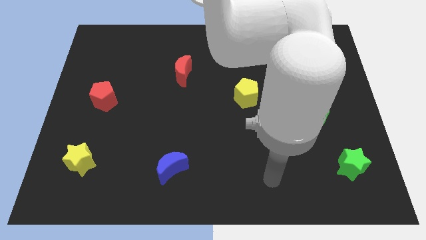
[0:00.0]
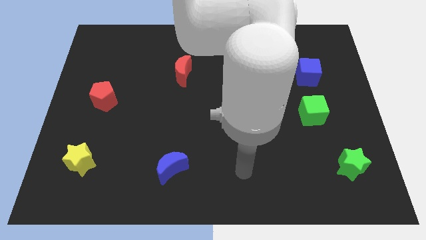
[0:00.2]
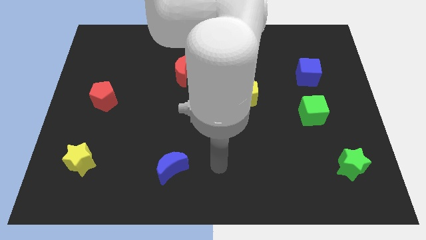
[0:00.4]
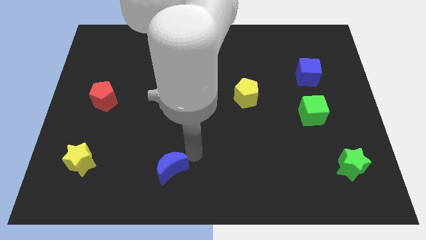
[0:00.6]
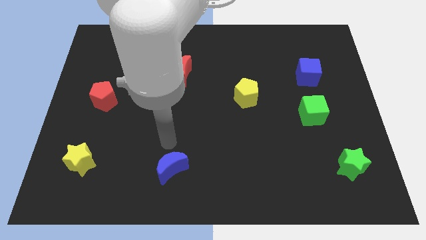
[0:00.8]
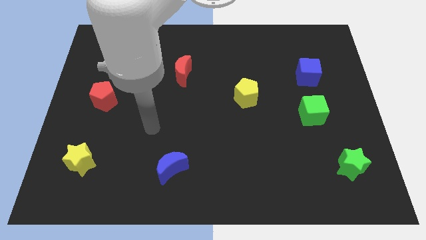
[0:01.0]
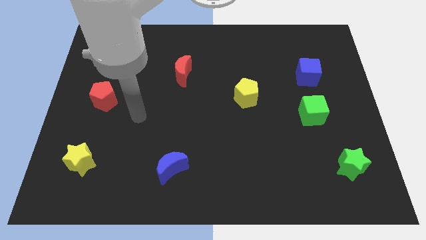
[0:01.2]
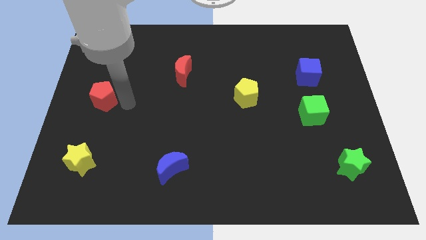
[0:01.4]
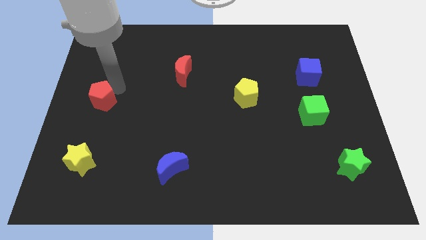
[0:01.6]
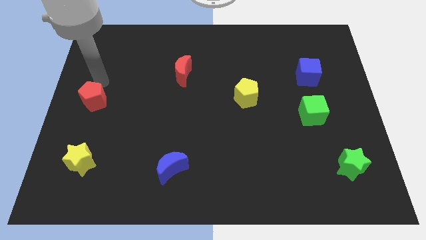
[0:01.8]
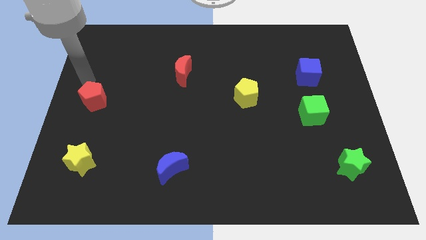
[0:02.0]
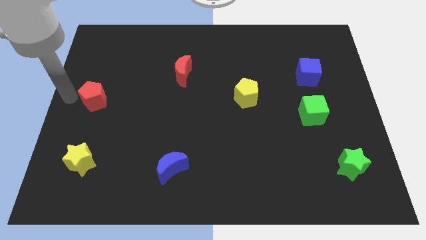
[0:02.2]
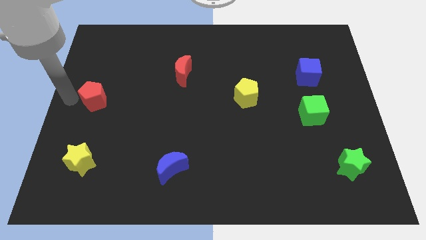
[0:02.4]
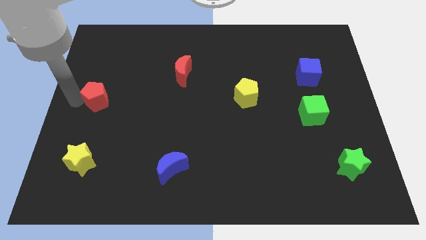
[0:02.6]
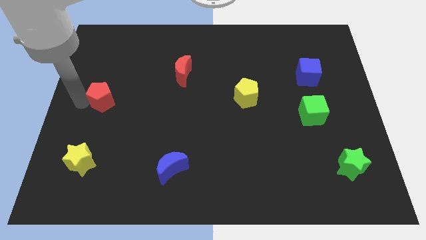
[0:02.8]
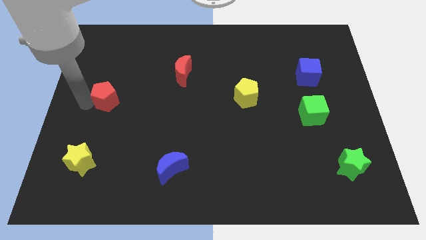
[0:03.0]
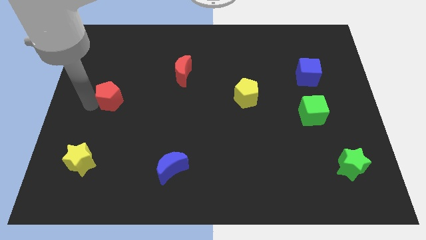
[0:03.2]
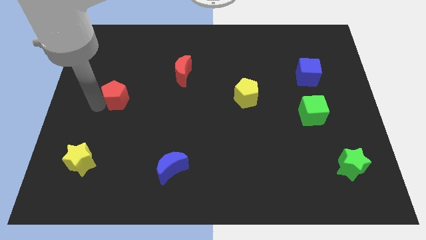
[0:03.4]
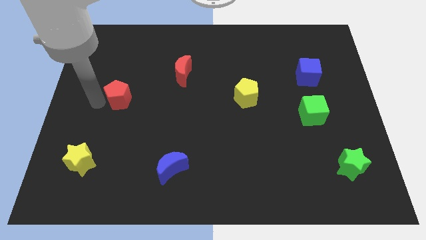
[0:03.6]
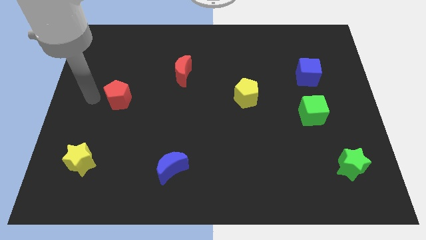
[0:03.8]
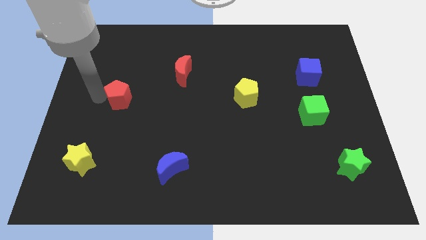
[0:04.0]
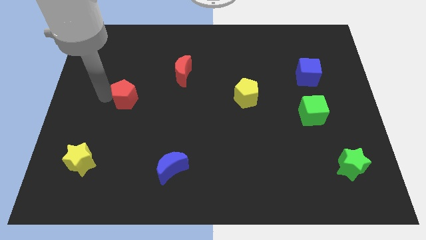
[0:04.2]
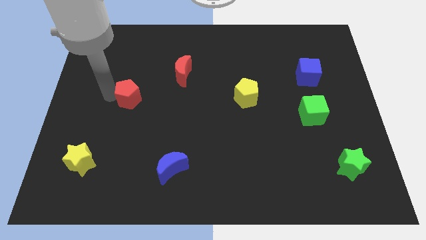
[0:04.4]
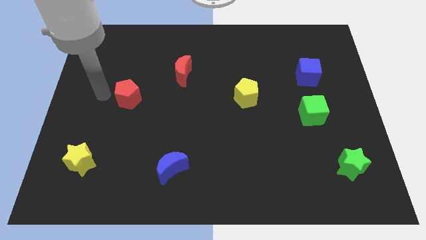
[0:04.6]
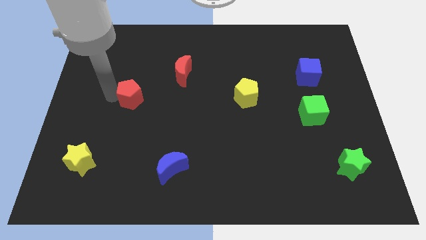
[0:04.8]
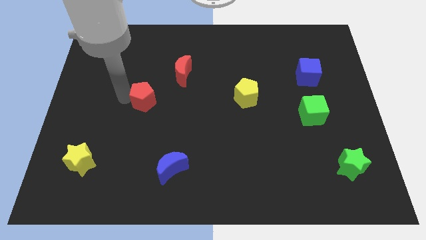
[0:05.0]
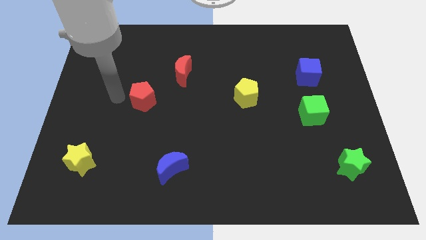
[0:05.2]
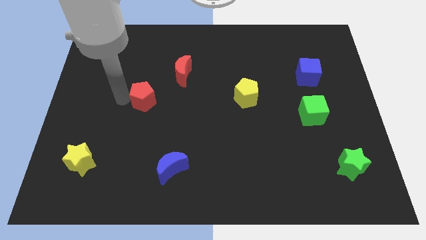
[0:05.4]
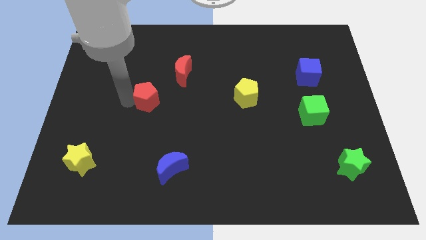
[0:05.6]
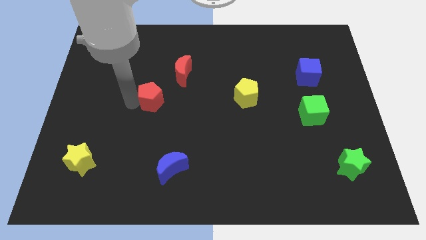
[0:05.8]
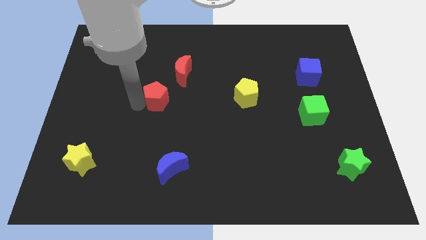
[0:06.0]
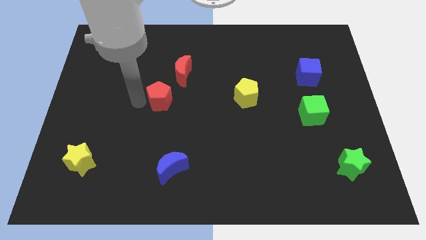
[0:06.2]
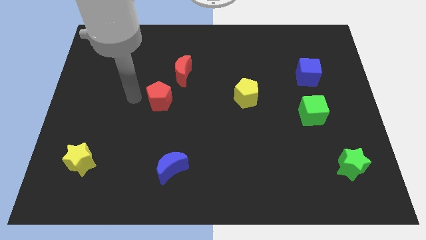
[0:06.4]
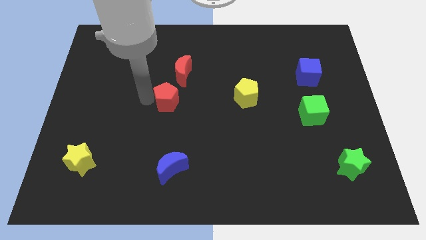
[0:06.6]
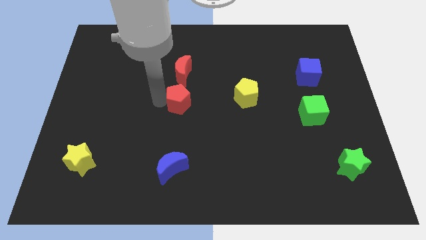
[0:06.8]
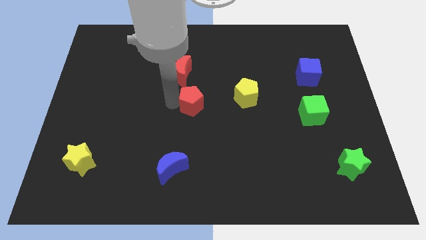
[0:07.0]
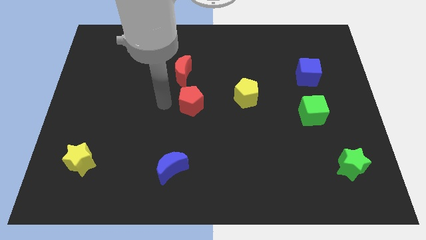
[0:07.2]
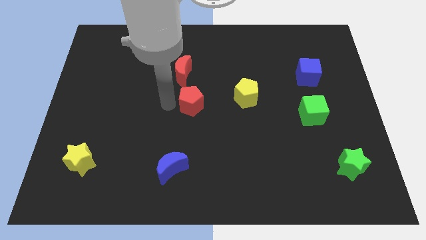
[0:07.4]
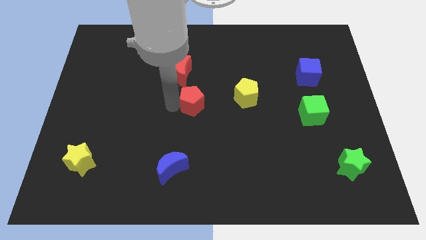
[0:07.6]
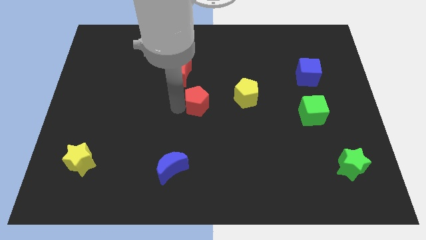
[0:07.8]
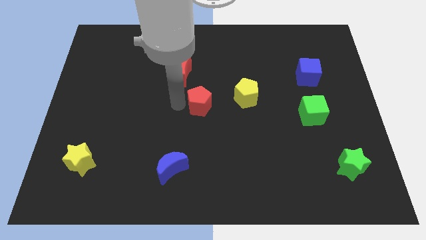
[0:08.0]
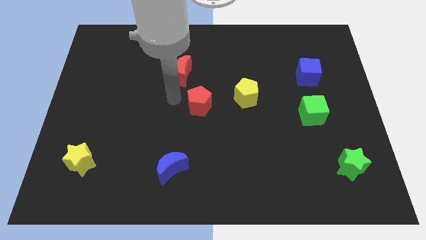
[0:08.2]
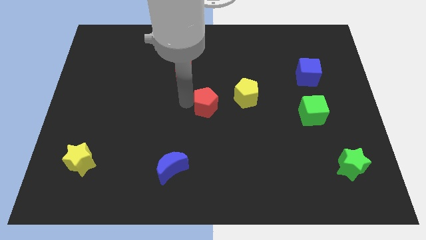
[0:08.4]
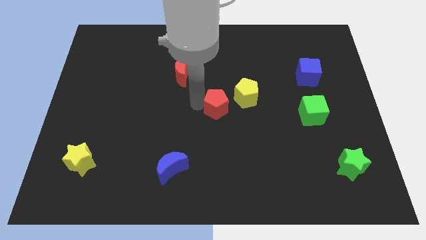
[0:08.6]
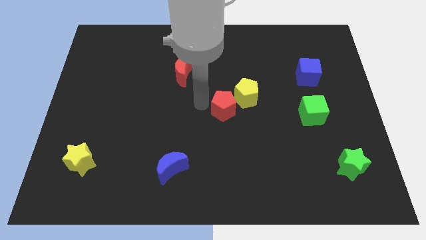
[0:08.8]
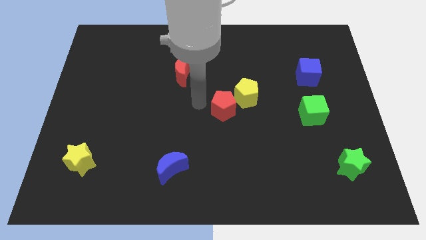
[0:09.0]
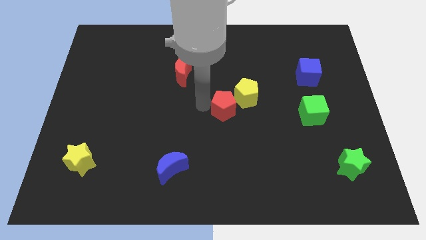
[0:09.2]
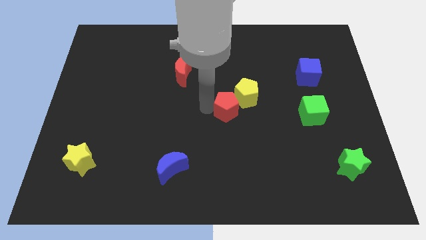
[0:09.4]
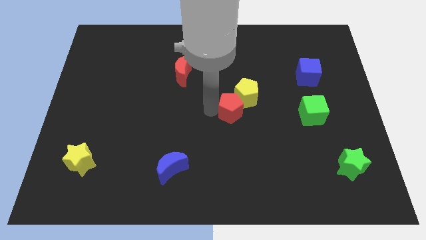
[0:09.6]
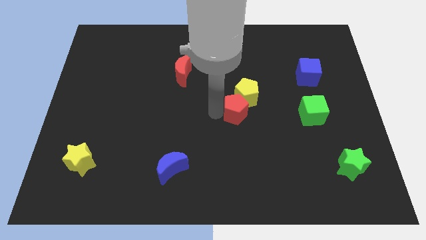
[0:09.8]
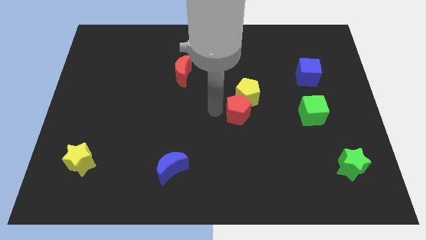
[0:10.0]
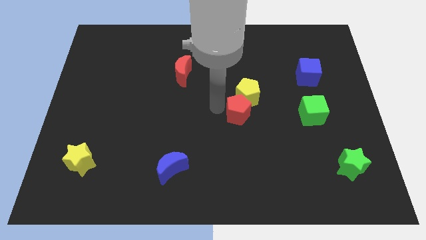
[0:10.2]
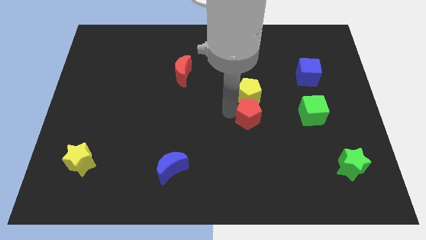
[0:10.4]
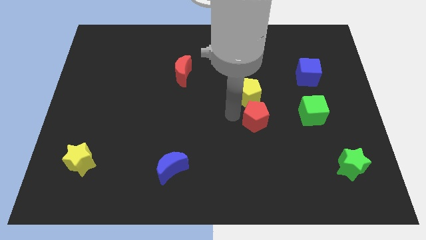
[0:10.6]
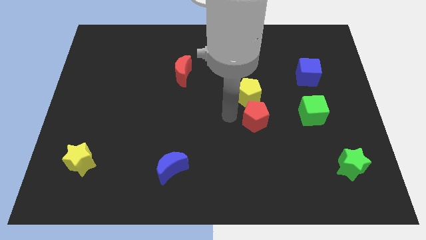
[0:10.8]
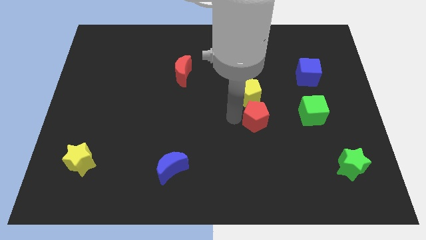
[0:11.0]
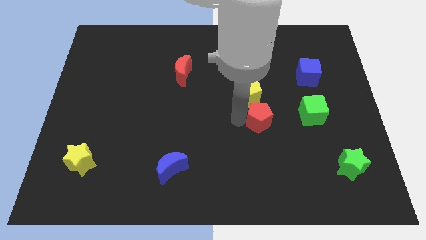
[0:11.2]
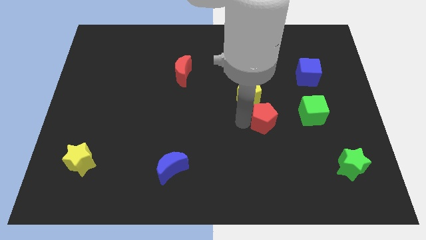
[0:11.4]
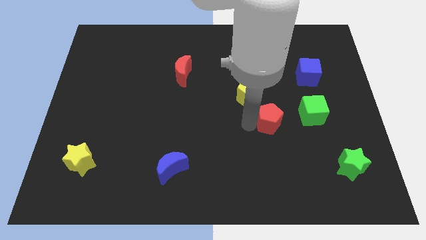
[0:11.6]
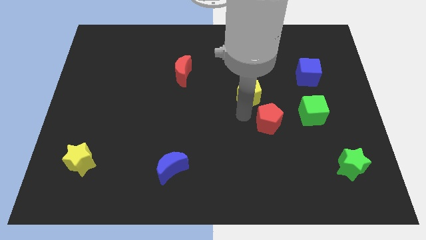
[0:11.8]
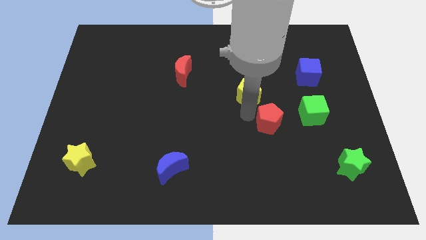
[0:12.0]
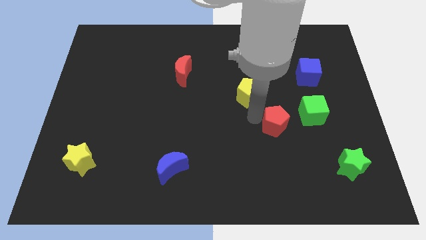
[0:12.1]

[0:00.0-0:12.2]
put the red pentagon diagonally down and to the left of the green cube

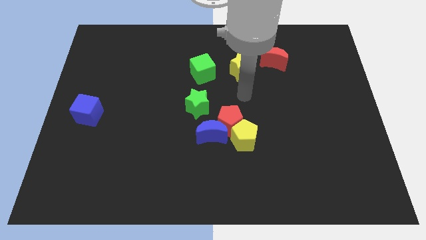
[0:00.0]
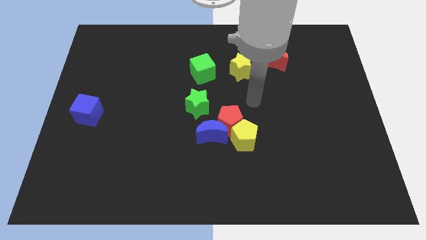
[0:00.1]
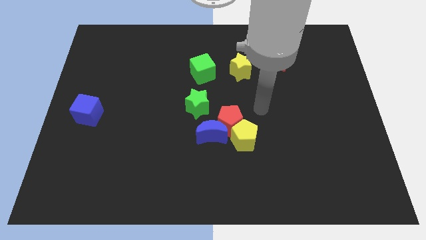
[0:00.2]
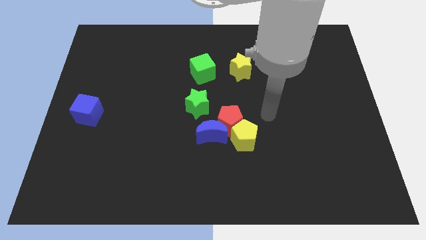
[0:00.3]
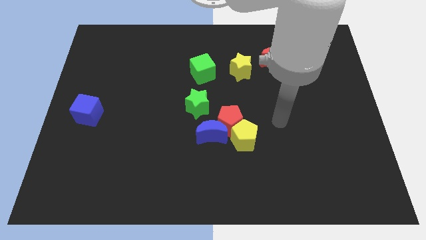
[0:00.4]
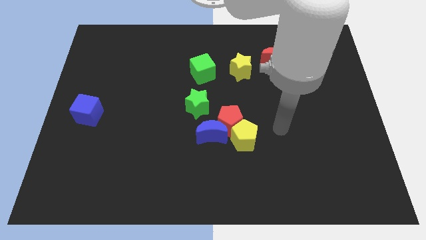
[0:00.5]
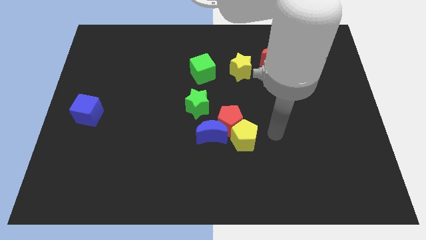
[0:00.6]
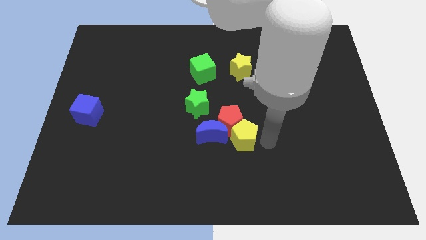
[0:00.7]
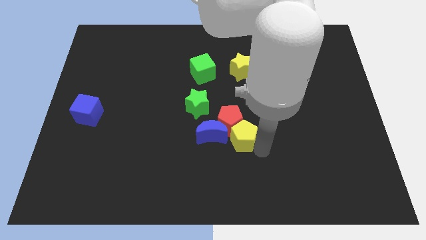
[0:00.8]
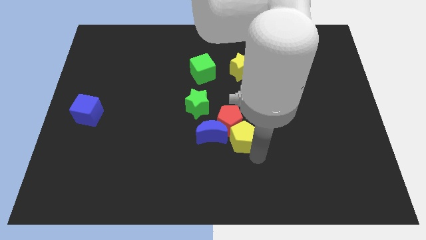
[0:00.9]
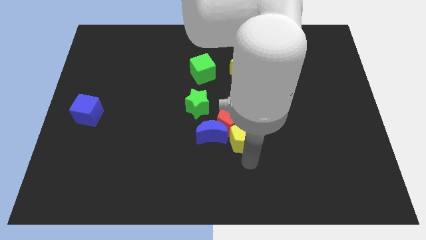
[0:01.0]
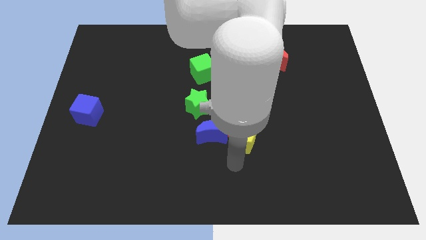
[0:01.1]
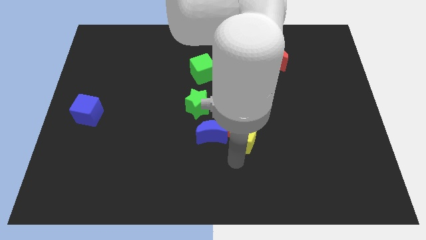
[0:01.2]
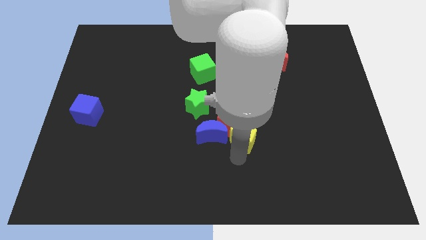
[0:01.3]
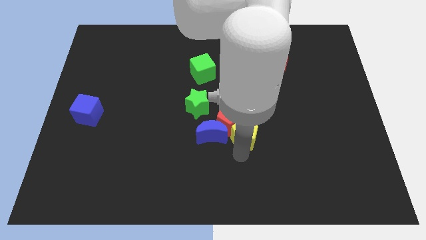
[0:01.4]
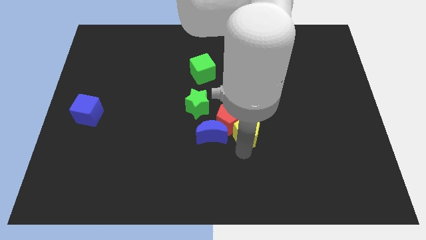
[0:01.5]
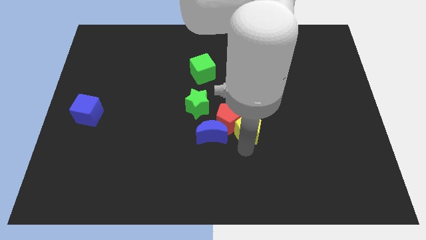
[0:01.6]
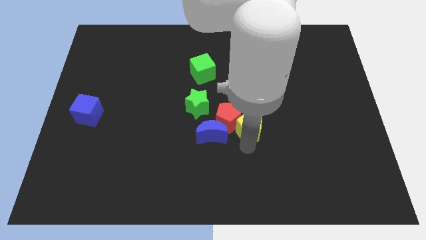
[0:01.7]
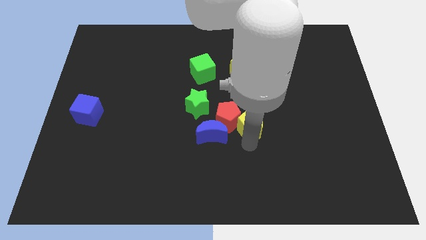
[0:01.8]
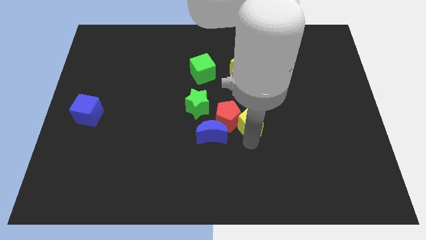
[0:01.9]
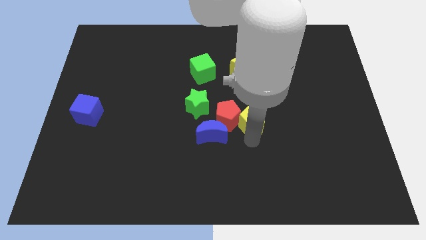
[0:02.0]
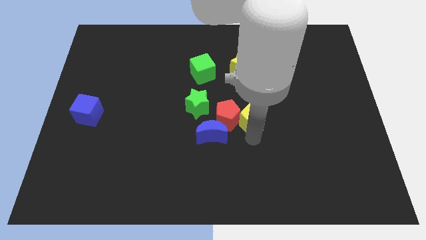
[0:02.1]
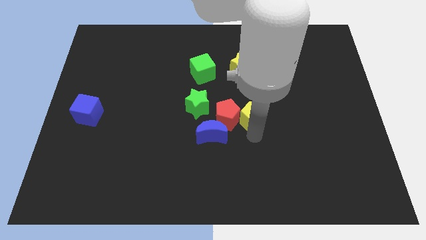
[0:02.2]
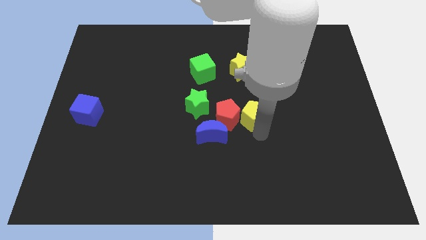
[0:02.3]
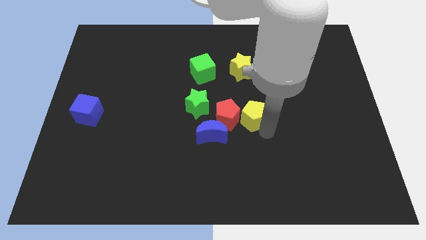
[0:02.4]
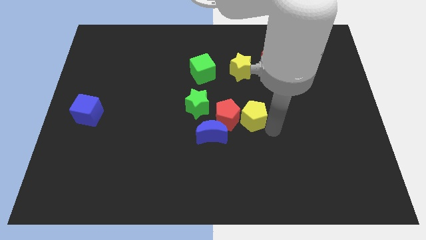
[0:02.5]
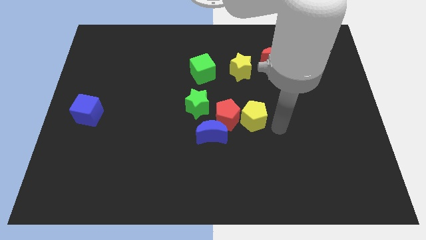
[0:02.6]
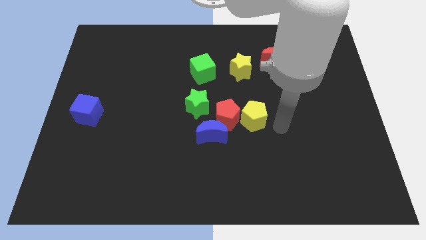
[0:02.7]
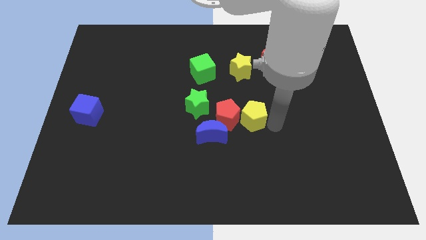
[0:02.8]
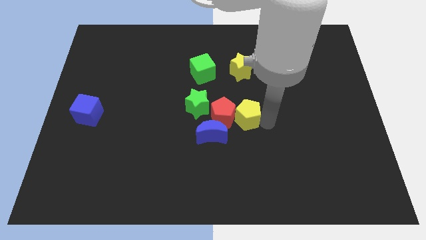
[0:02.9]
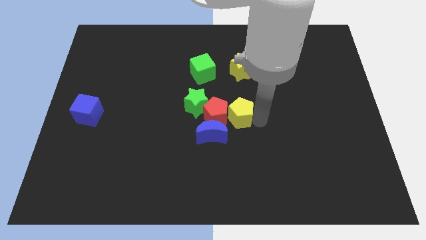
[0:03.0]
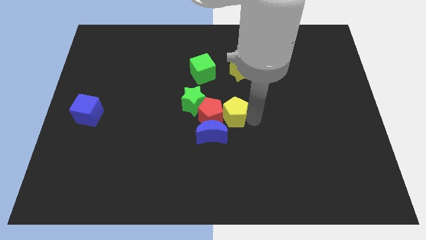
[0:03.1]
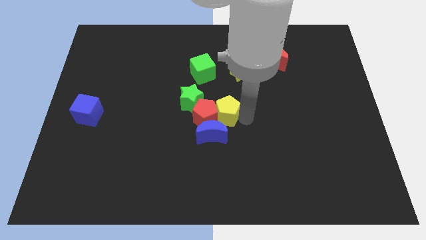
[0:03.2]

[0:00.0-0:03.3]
slide the yellow pentagon to the top side of the blue moon
